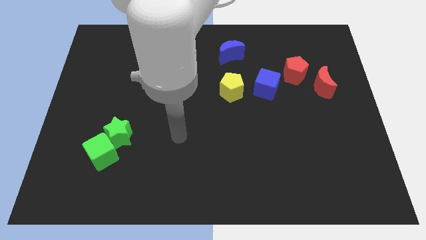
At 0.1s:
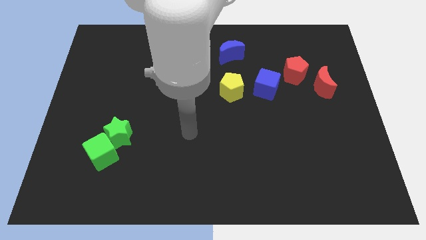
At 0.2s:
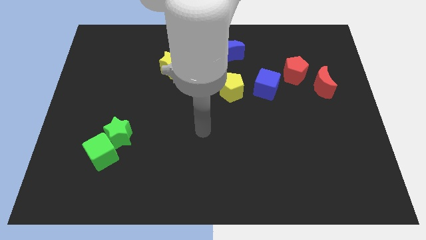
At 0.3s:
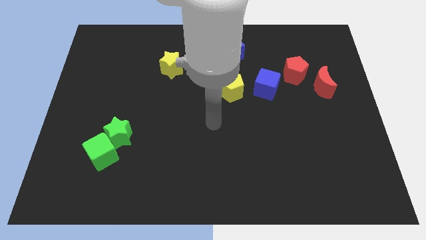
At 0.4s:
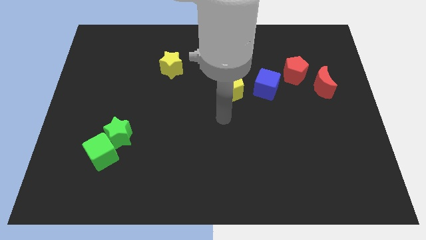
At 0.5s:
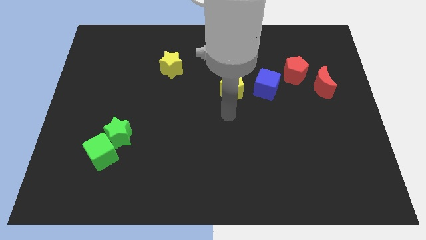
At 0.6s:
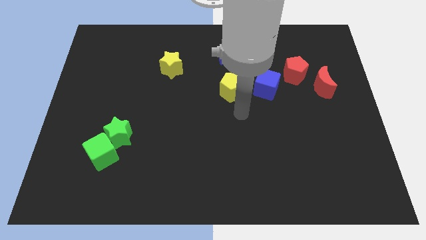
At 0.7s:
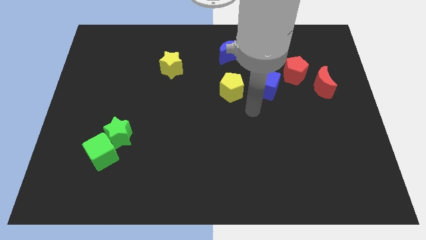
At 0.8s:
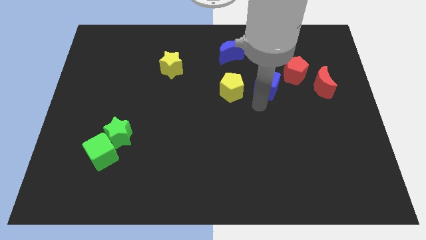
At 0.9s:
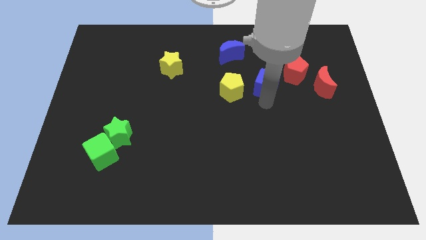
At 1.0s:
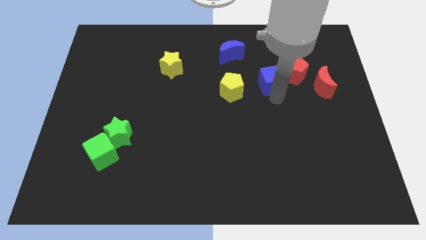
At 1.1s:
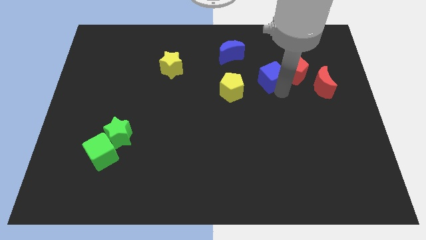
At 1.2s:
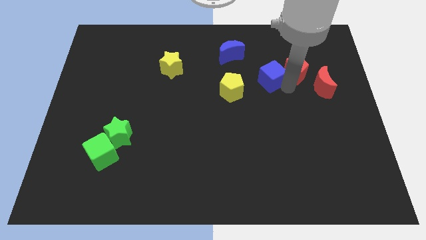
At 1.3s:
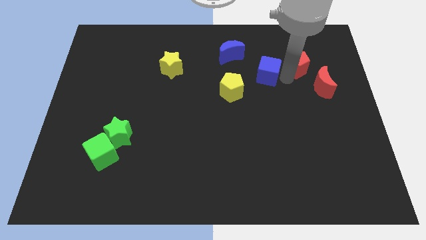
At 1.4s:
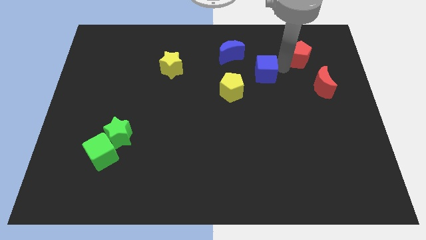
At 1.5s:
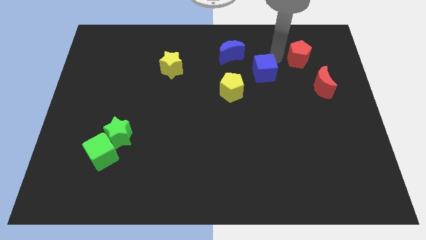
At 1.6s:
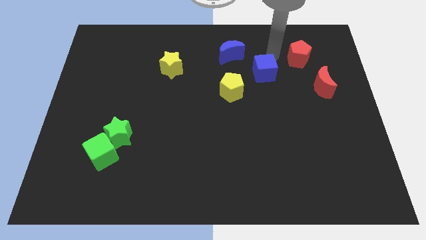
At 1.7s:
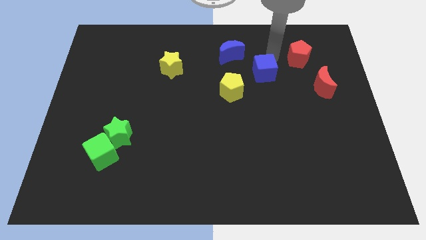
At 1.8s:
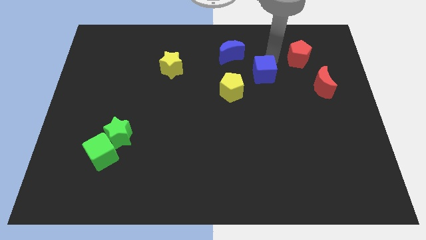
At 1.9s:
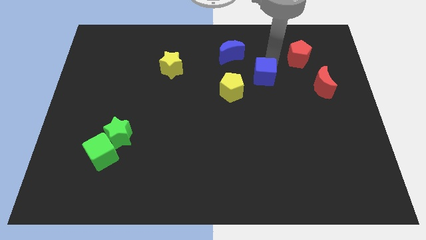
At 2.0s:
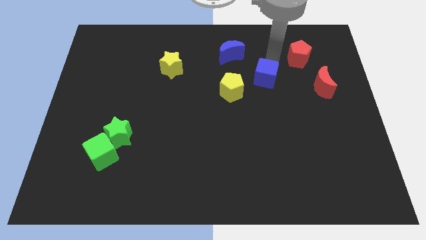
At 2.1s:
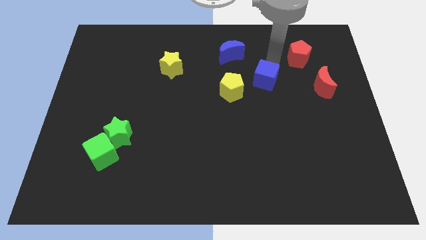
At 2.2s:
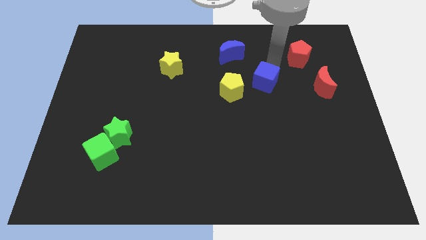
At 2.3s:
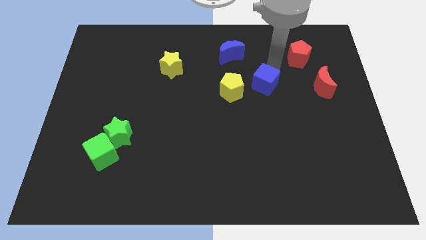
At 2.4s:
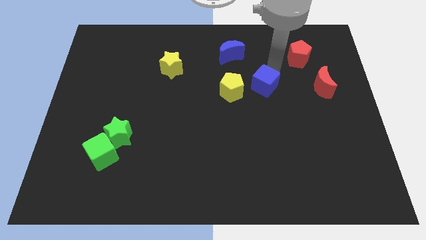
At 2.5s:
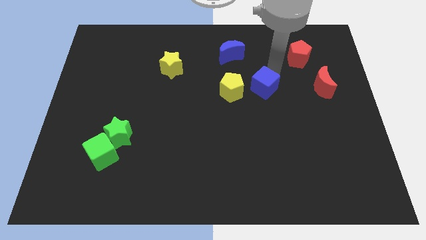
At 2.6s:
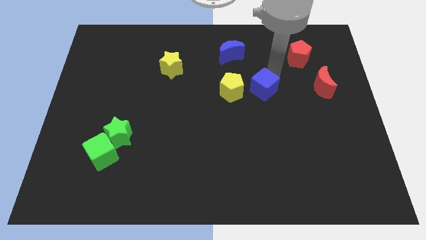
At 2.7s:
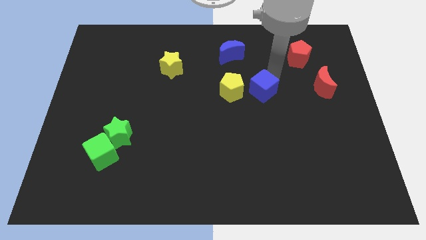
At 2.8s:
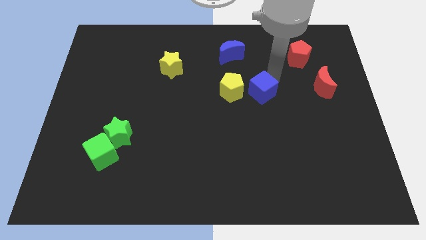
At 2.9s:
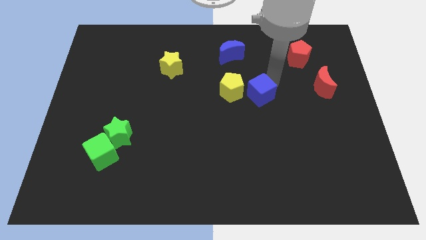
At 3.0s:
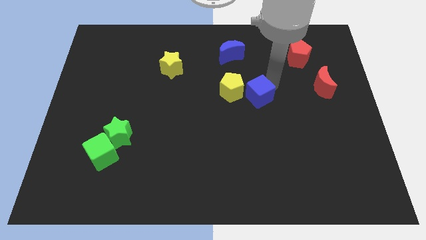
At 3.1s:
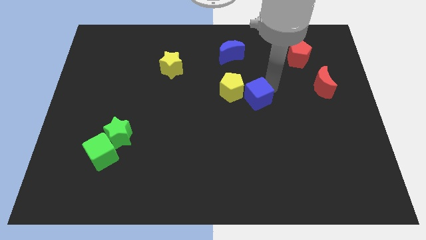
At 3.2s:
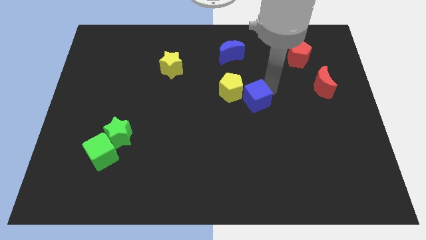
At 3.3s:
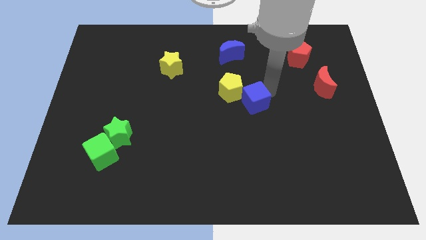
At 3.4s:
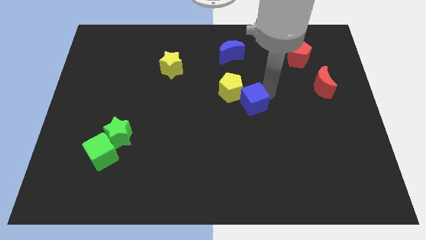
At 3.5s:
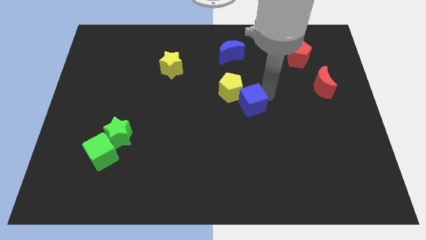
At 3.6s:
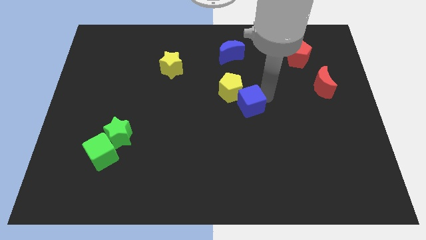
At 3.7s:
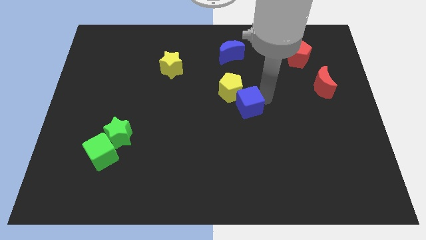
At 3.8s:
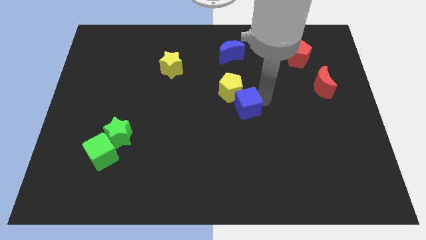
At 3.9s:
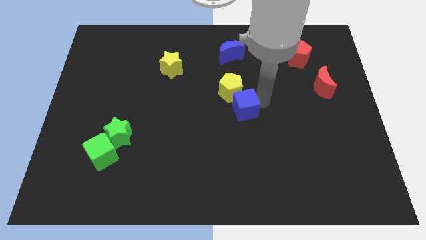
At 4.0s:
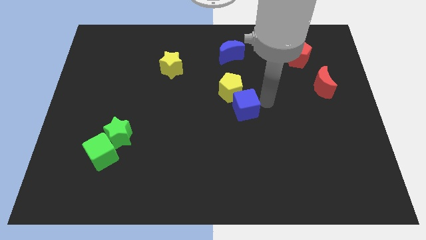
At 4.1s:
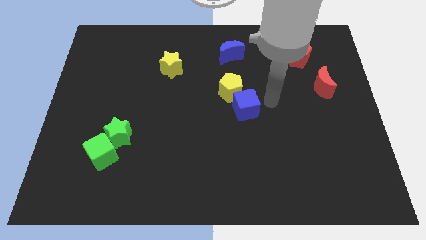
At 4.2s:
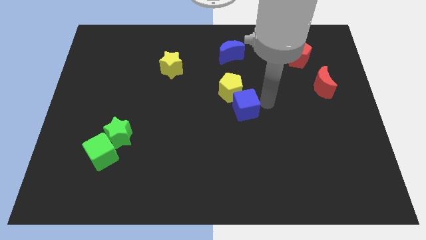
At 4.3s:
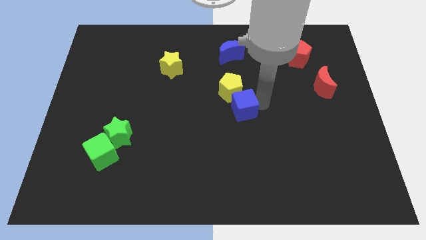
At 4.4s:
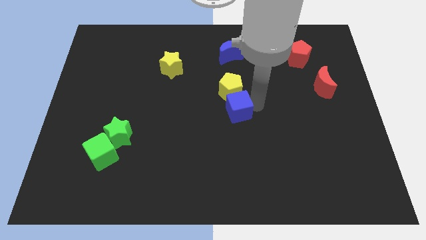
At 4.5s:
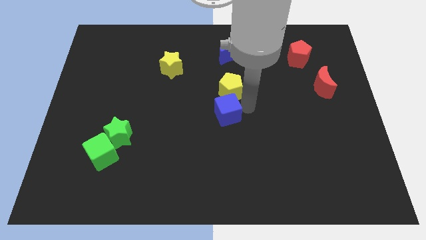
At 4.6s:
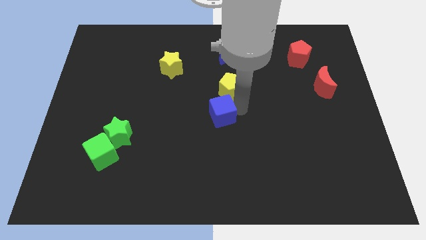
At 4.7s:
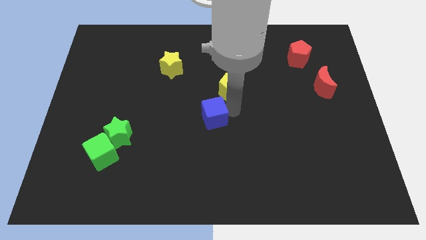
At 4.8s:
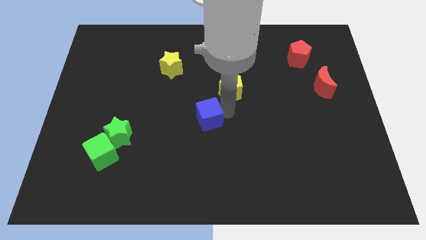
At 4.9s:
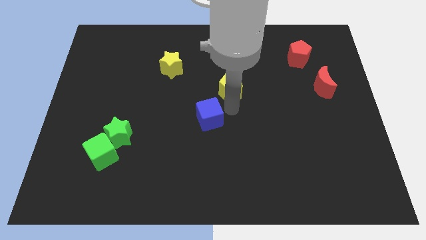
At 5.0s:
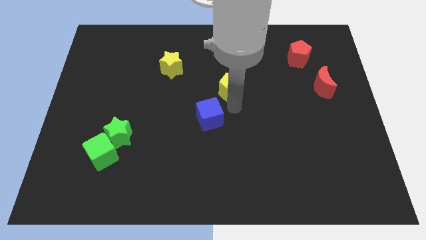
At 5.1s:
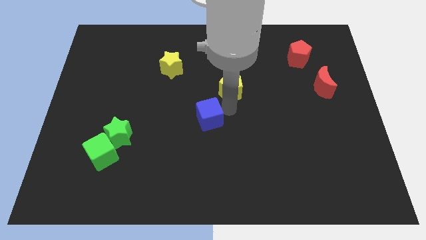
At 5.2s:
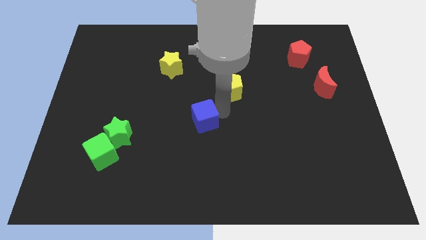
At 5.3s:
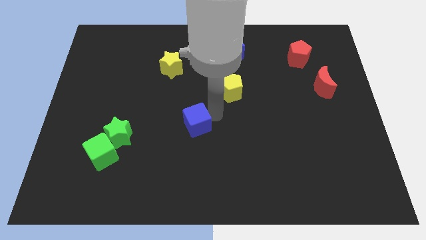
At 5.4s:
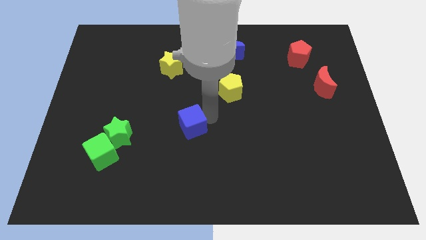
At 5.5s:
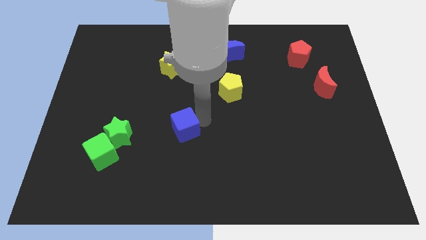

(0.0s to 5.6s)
slide the blue cube right of the green star

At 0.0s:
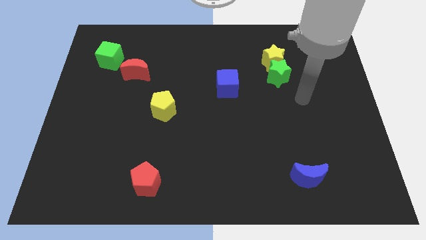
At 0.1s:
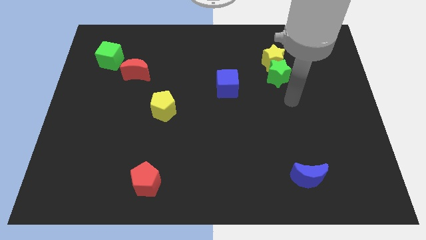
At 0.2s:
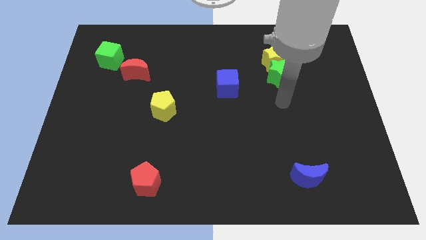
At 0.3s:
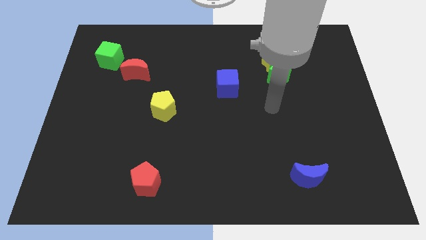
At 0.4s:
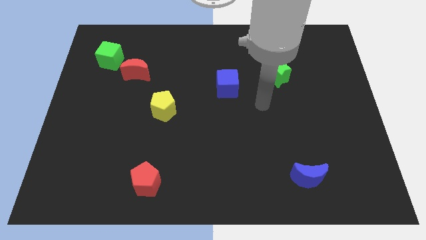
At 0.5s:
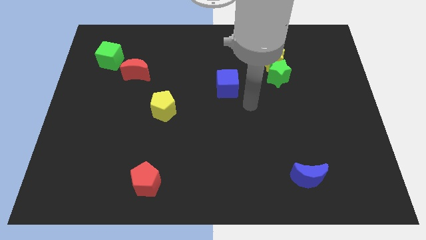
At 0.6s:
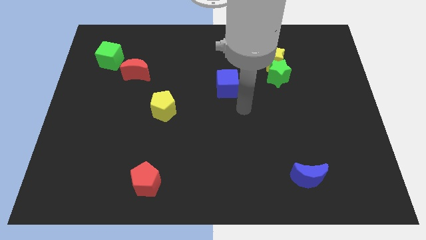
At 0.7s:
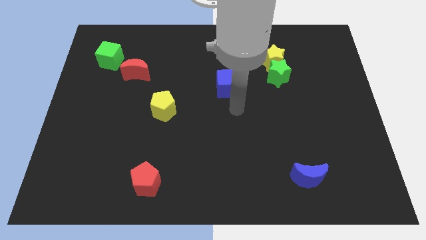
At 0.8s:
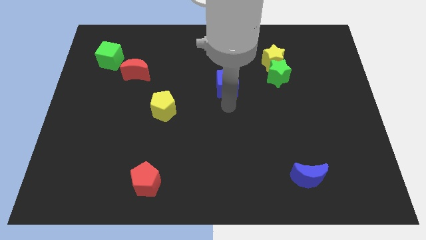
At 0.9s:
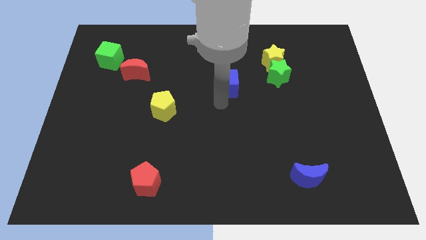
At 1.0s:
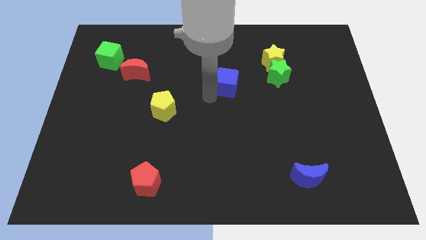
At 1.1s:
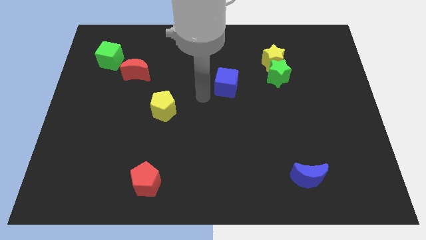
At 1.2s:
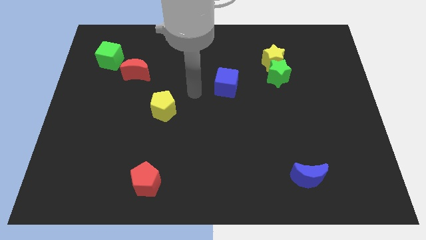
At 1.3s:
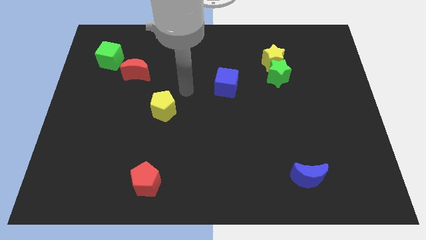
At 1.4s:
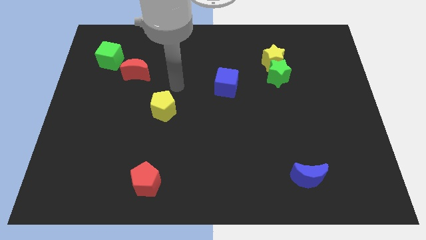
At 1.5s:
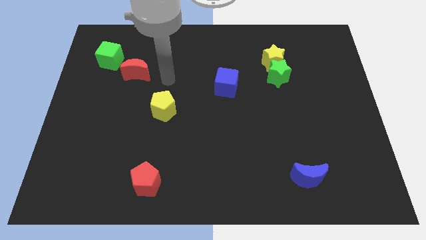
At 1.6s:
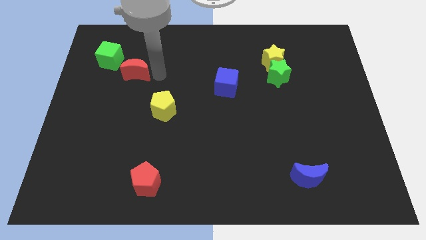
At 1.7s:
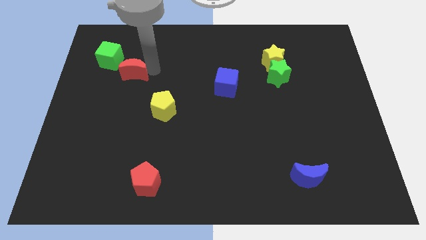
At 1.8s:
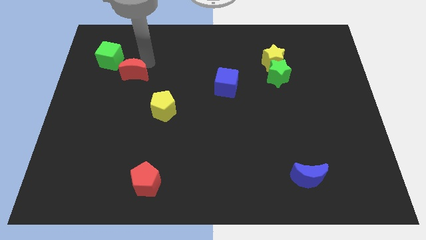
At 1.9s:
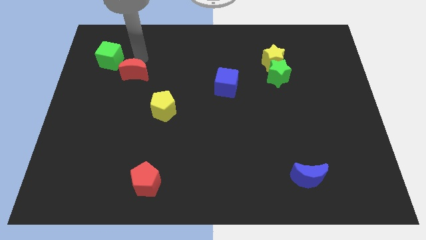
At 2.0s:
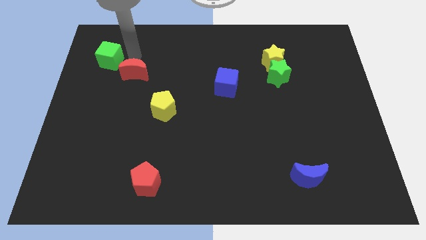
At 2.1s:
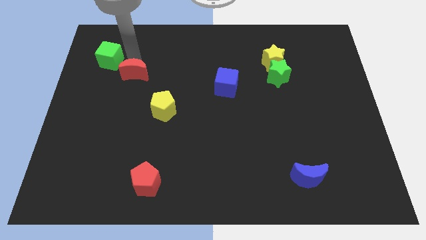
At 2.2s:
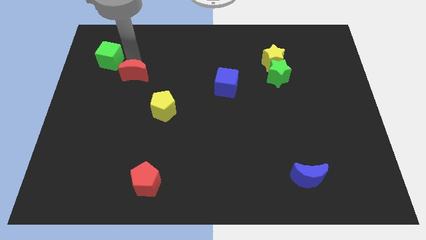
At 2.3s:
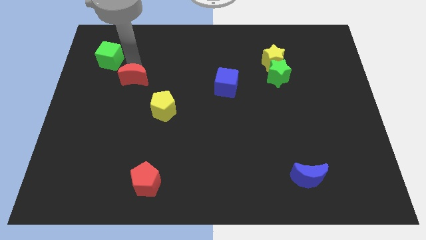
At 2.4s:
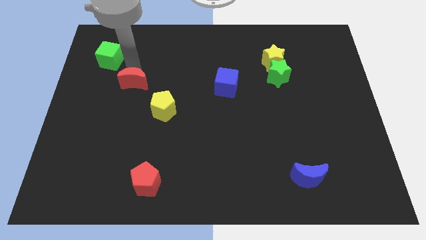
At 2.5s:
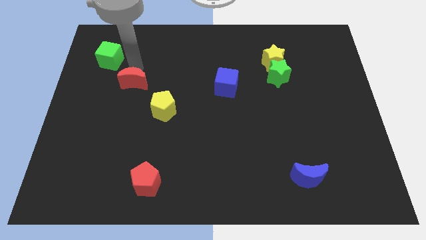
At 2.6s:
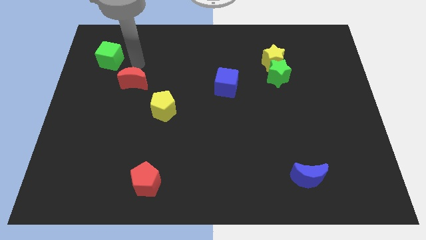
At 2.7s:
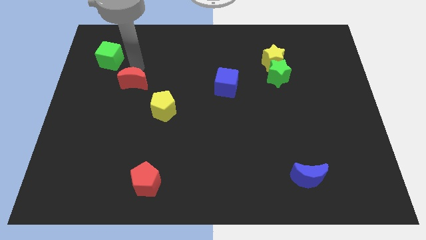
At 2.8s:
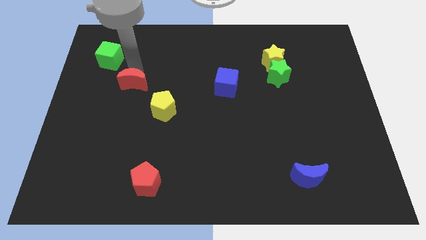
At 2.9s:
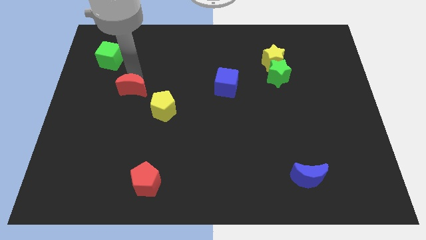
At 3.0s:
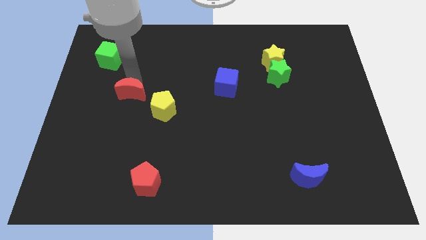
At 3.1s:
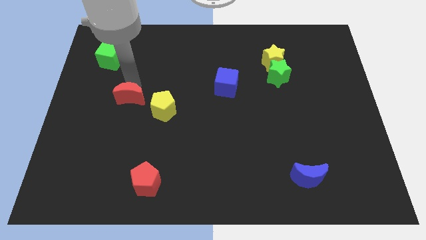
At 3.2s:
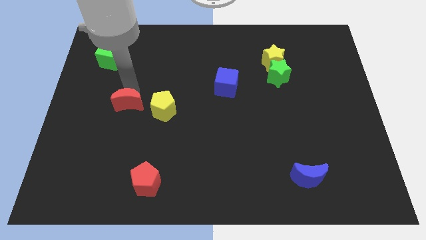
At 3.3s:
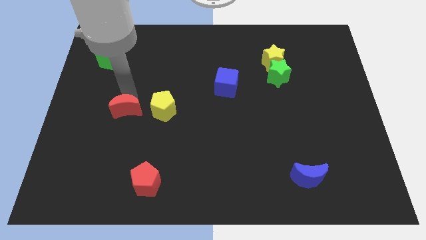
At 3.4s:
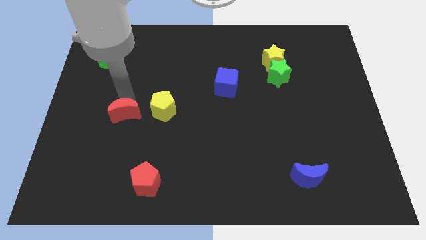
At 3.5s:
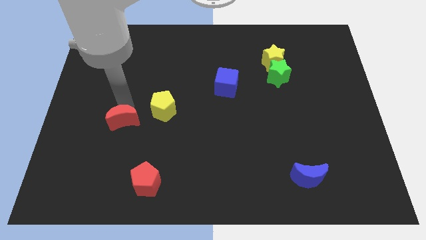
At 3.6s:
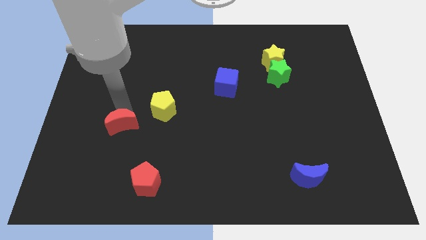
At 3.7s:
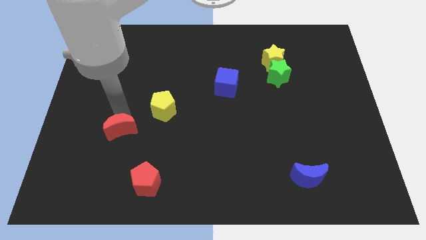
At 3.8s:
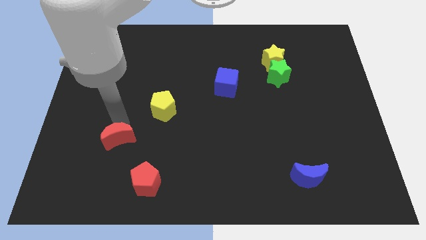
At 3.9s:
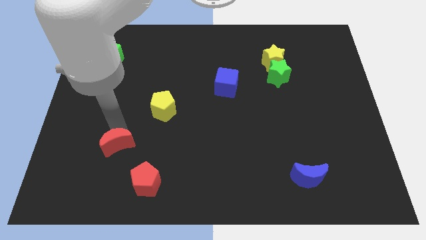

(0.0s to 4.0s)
put the red moon to the top left of the red pentagon
